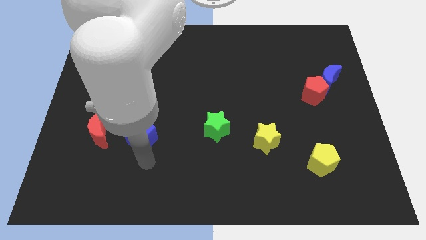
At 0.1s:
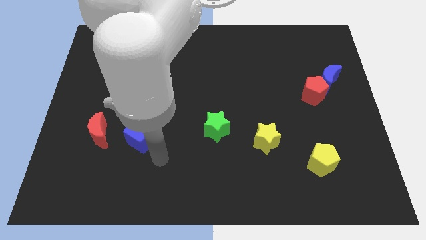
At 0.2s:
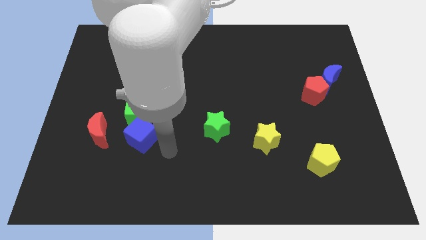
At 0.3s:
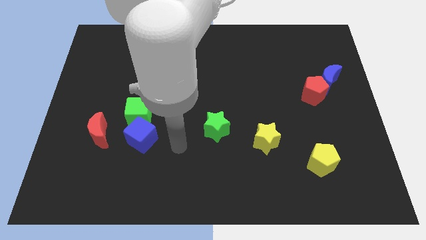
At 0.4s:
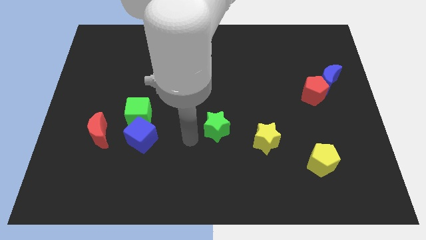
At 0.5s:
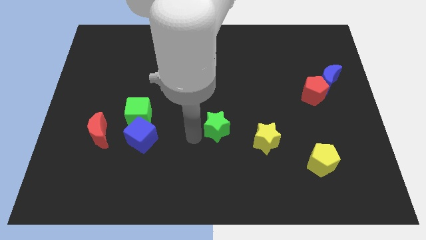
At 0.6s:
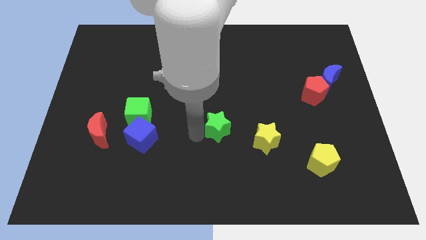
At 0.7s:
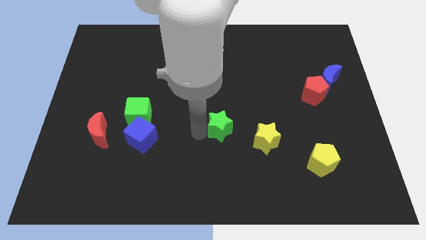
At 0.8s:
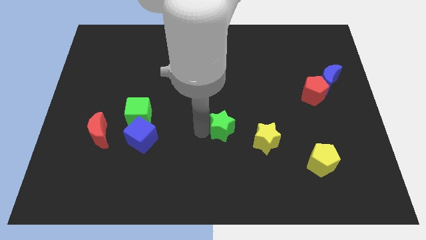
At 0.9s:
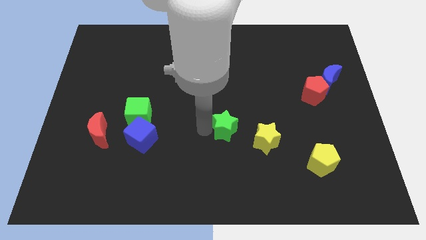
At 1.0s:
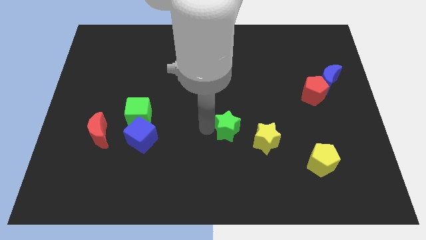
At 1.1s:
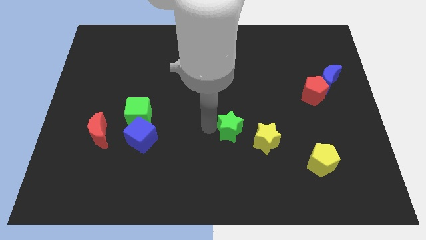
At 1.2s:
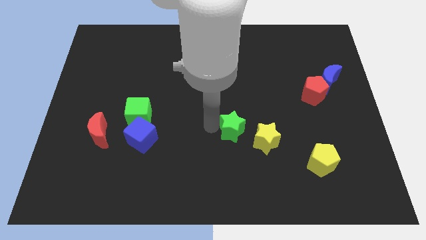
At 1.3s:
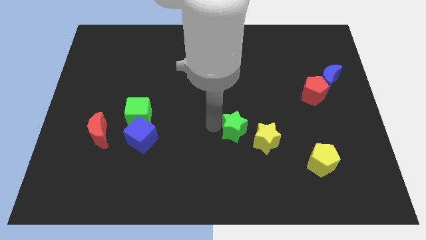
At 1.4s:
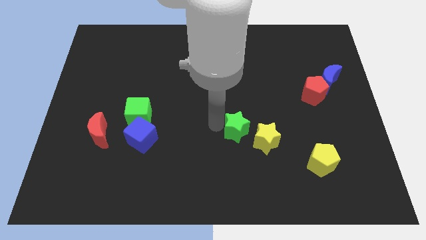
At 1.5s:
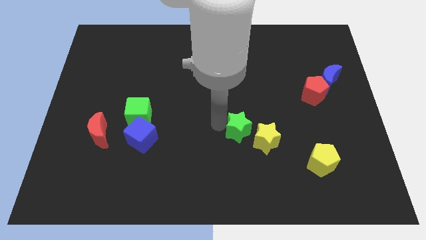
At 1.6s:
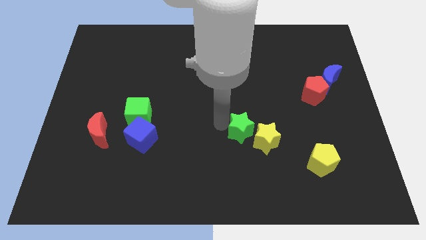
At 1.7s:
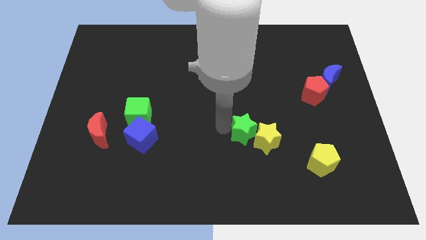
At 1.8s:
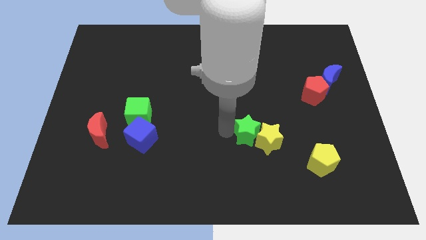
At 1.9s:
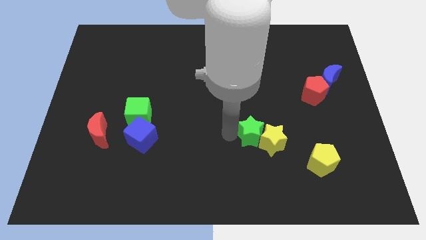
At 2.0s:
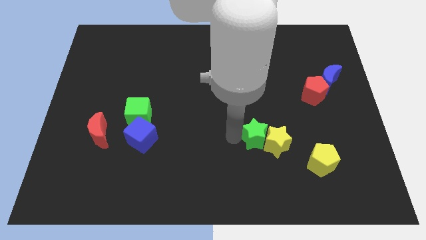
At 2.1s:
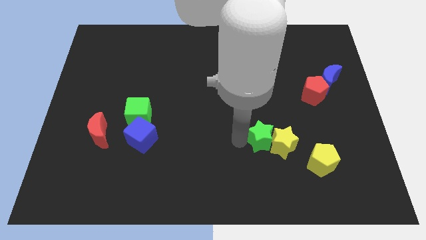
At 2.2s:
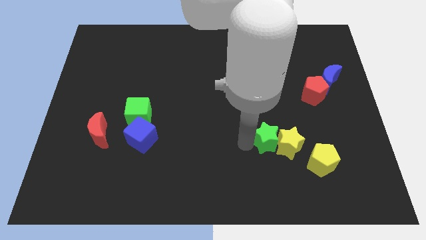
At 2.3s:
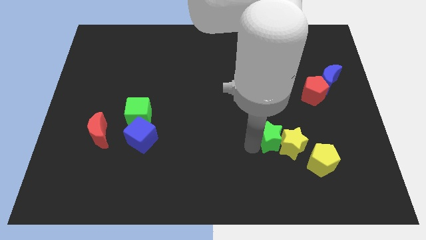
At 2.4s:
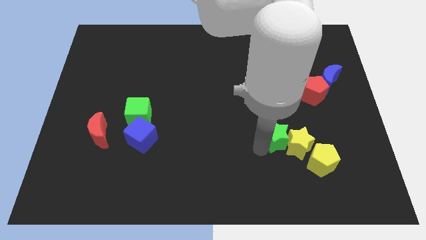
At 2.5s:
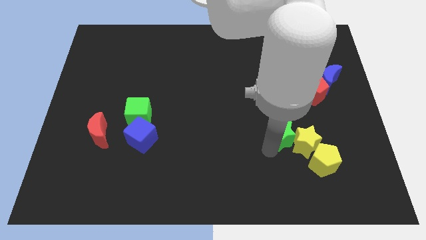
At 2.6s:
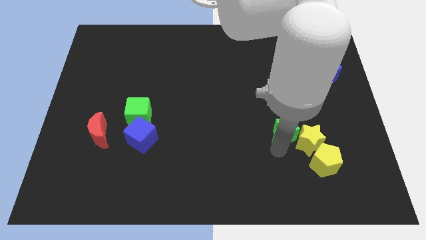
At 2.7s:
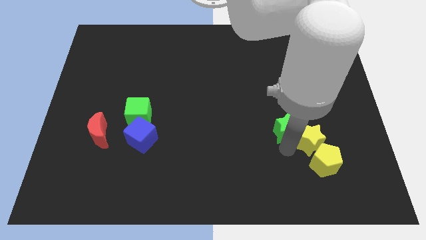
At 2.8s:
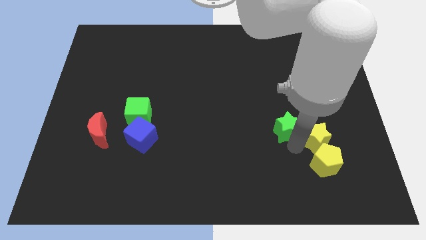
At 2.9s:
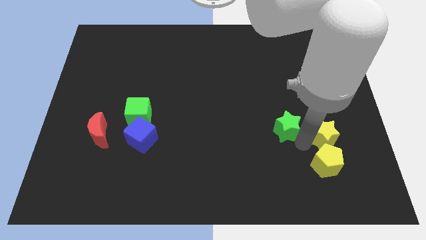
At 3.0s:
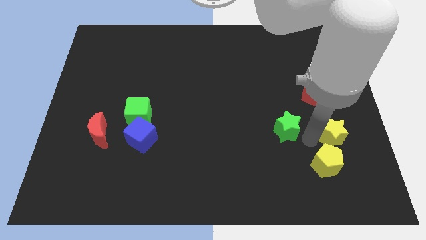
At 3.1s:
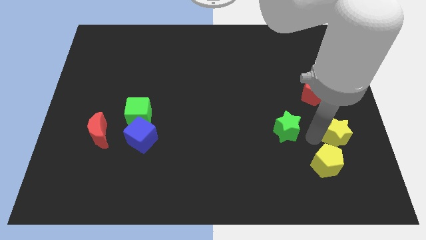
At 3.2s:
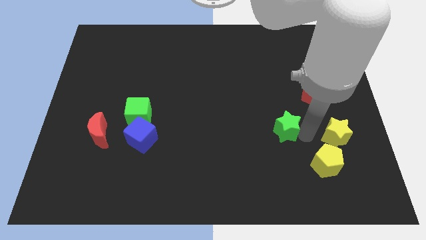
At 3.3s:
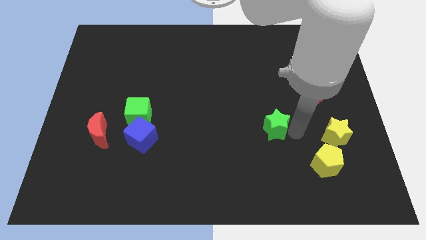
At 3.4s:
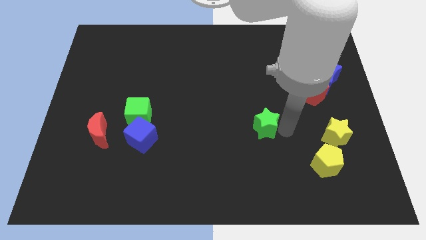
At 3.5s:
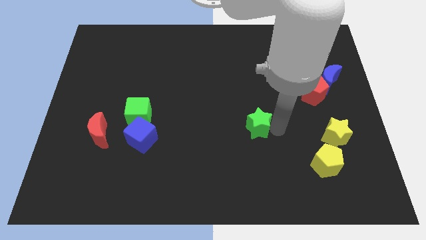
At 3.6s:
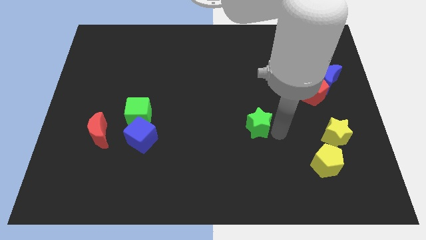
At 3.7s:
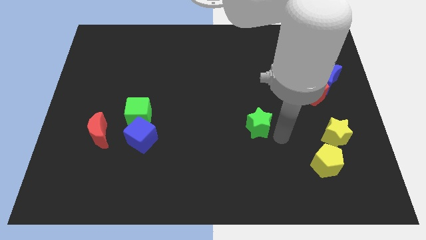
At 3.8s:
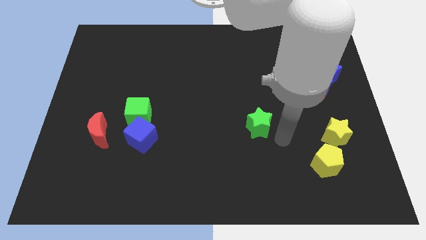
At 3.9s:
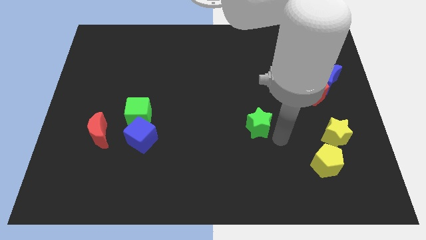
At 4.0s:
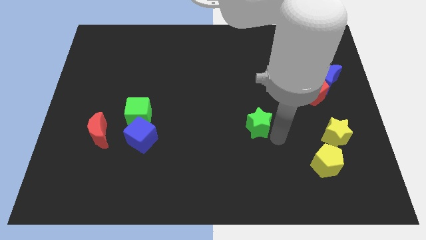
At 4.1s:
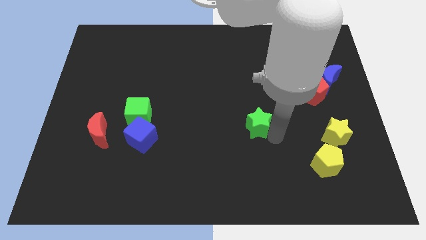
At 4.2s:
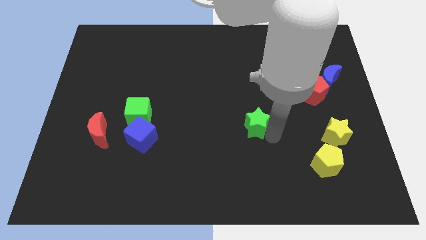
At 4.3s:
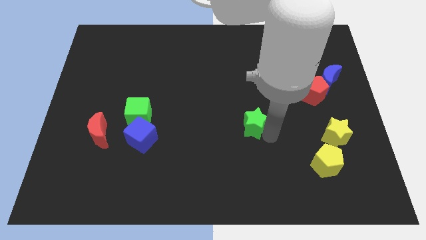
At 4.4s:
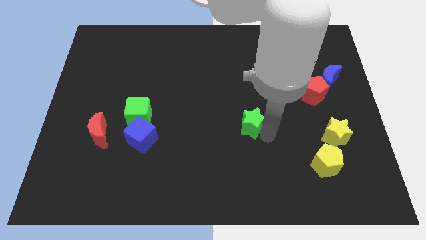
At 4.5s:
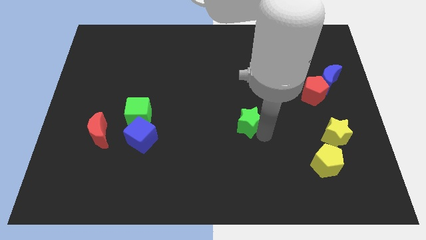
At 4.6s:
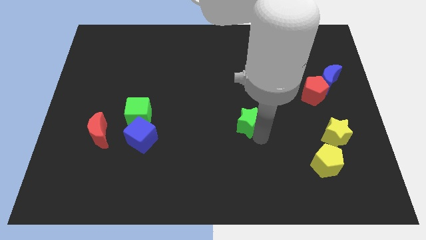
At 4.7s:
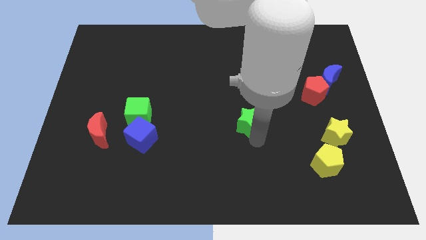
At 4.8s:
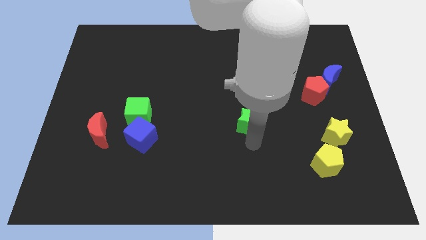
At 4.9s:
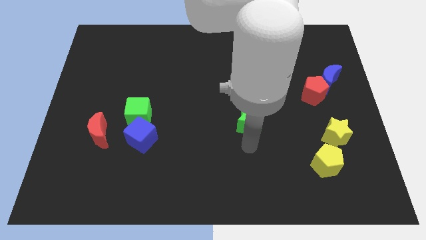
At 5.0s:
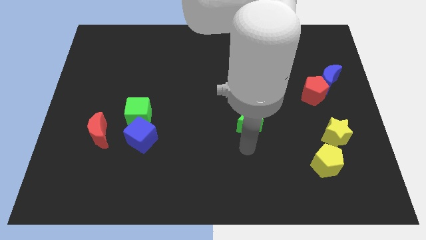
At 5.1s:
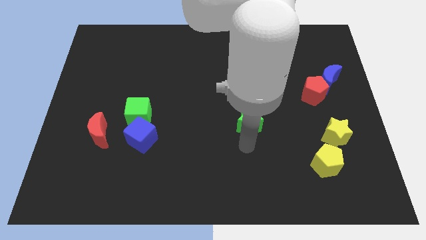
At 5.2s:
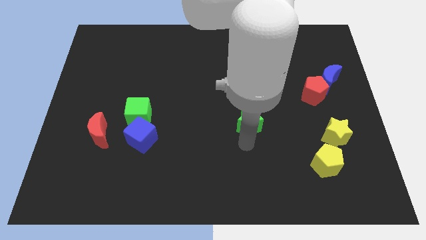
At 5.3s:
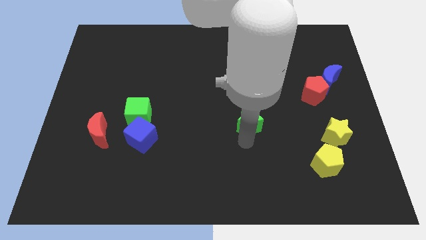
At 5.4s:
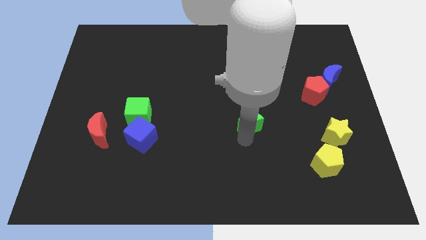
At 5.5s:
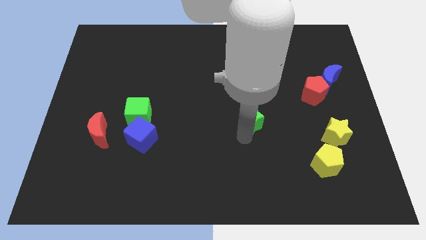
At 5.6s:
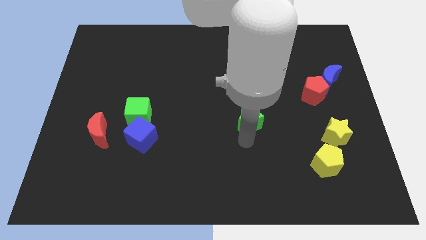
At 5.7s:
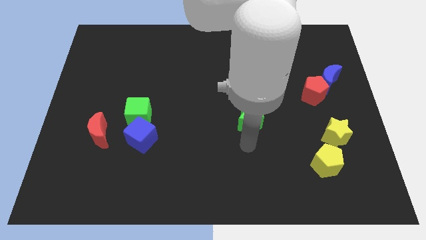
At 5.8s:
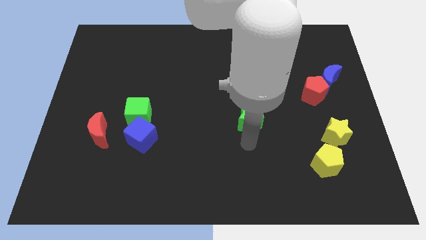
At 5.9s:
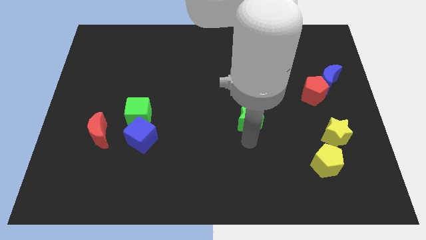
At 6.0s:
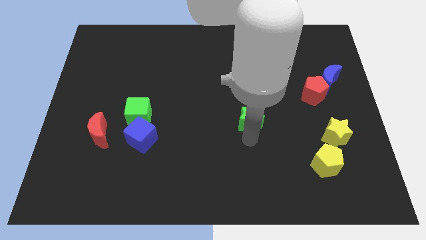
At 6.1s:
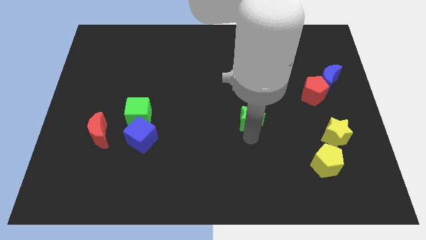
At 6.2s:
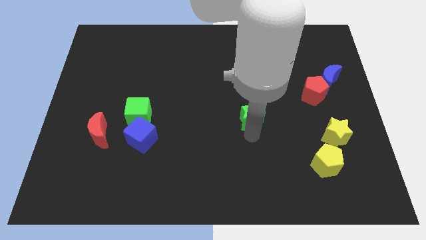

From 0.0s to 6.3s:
slightly push the green star up and right diagonally

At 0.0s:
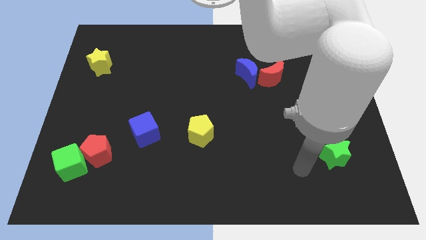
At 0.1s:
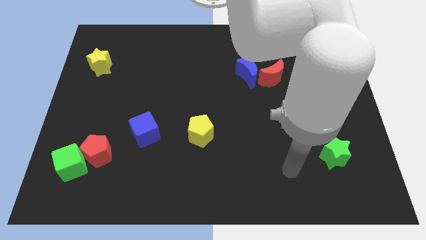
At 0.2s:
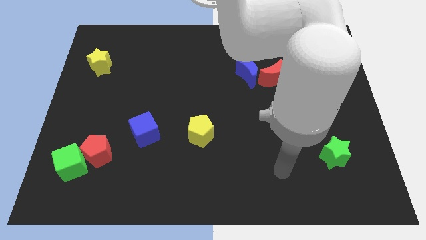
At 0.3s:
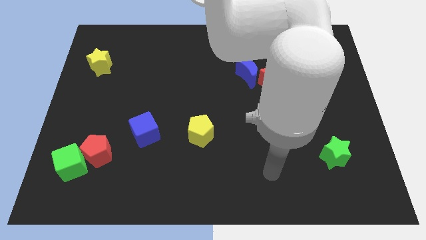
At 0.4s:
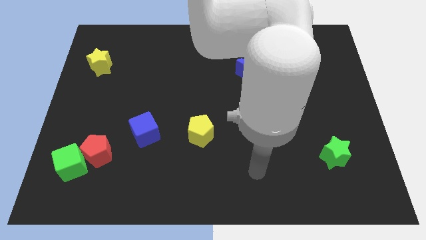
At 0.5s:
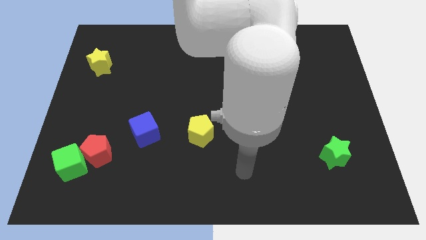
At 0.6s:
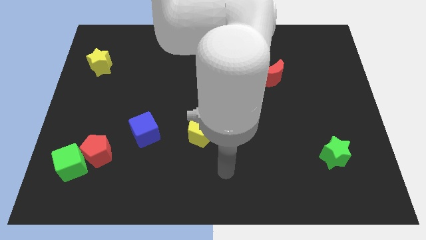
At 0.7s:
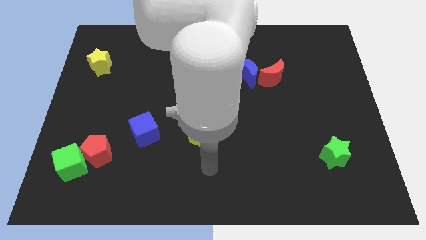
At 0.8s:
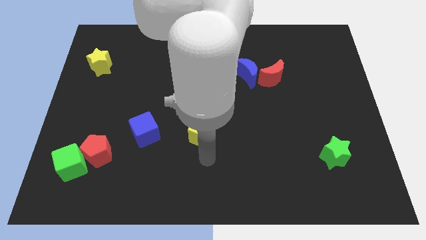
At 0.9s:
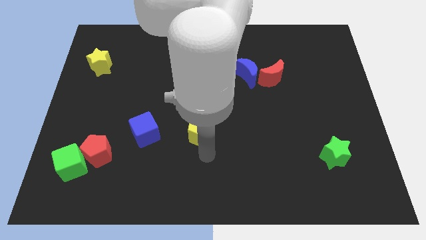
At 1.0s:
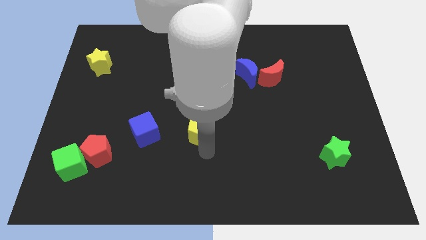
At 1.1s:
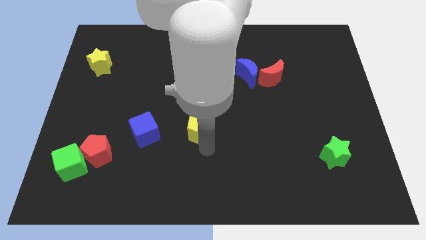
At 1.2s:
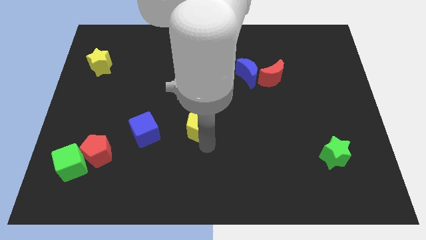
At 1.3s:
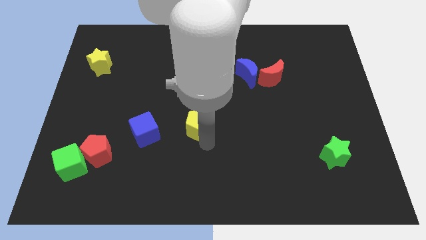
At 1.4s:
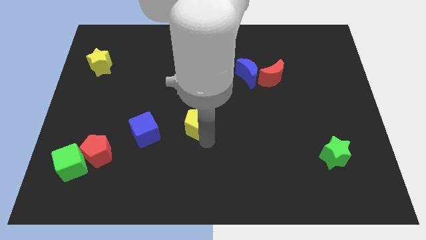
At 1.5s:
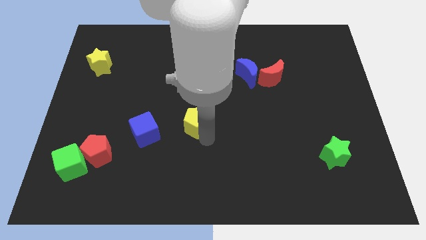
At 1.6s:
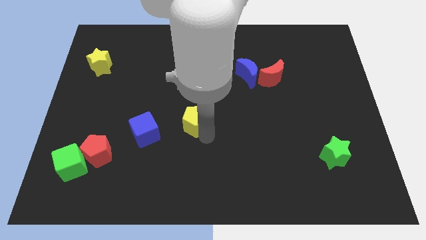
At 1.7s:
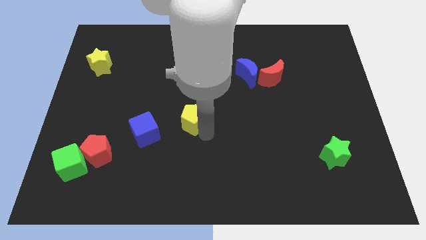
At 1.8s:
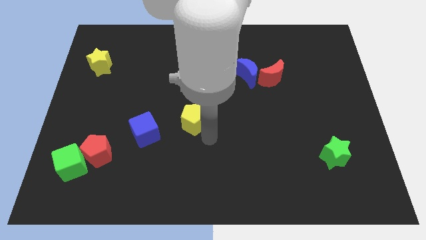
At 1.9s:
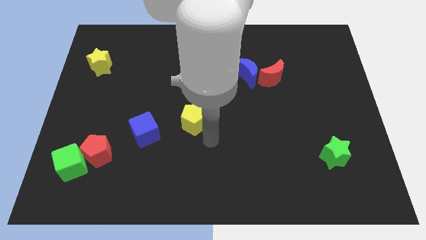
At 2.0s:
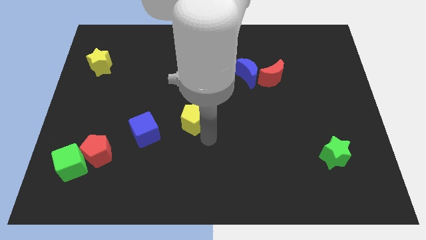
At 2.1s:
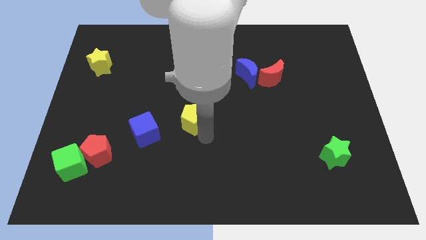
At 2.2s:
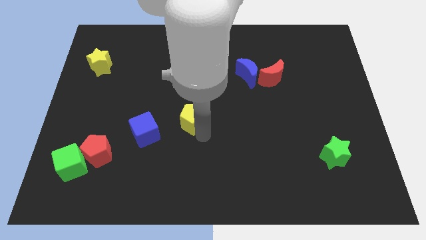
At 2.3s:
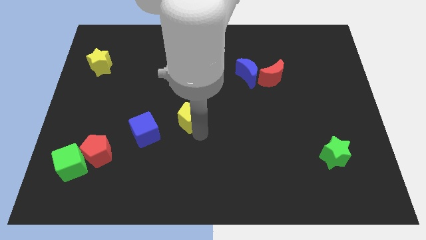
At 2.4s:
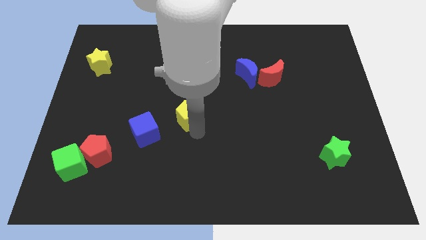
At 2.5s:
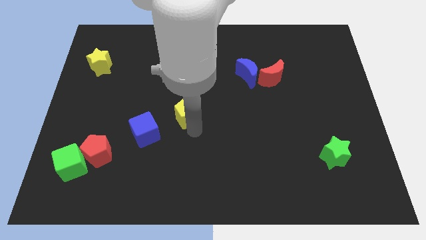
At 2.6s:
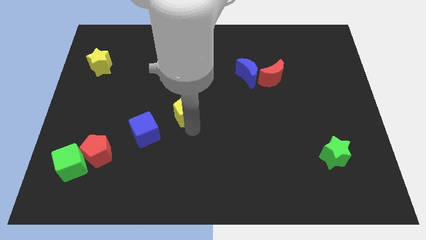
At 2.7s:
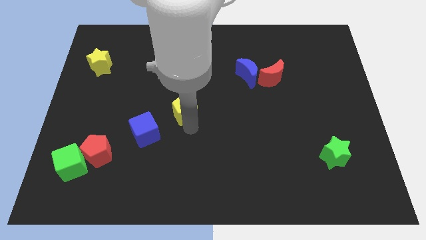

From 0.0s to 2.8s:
slide the yellow pentagon a little bit upwards and then to the left
